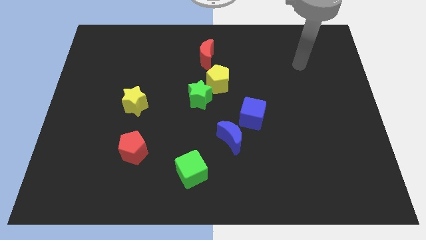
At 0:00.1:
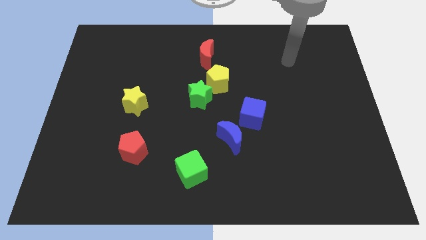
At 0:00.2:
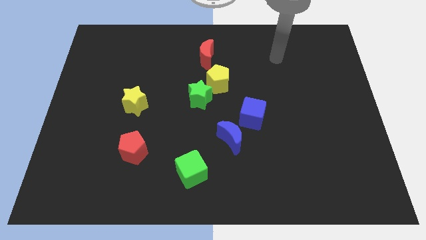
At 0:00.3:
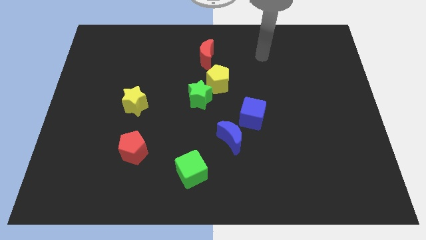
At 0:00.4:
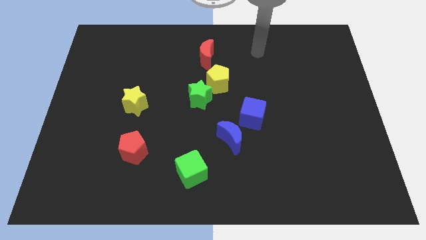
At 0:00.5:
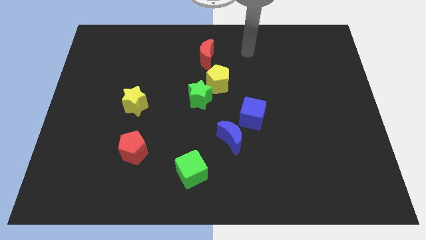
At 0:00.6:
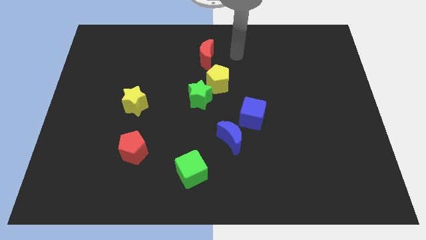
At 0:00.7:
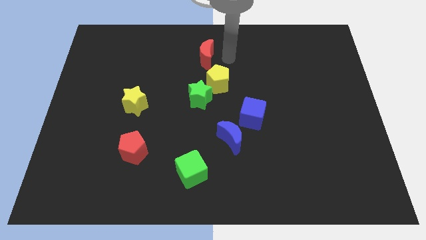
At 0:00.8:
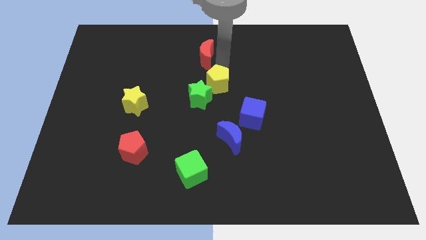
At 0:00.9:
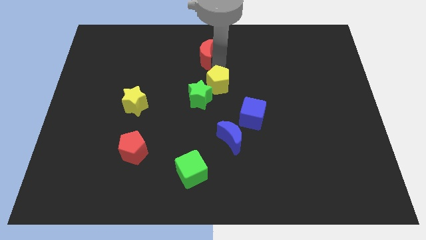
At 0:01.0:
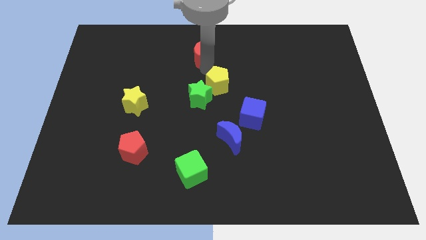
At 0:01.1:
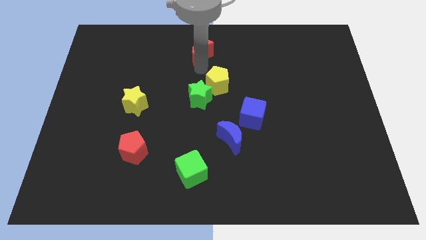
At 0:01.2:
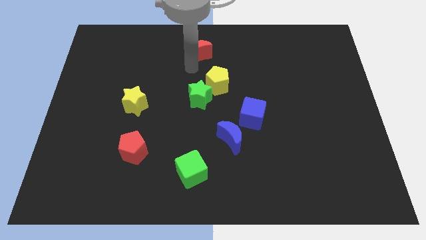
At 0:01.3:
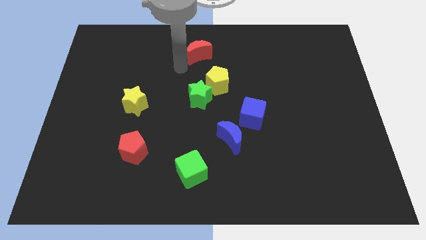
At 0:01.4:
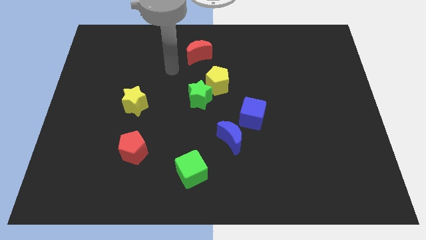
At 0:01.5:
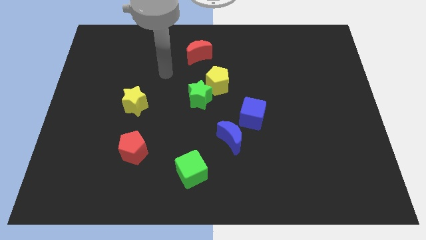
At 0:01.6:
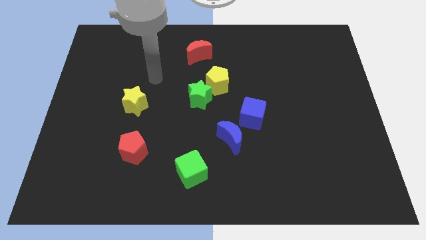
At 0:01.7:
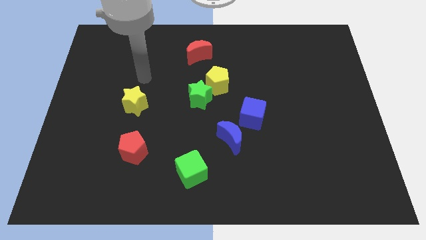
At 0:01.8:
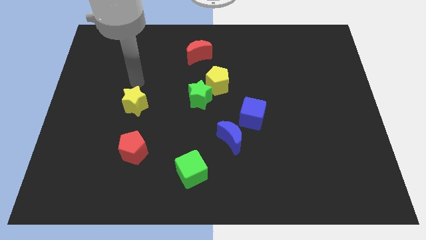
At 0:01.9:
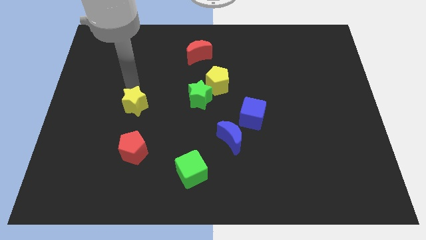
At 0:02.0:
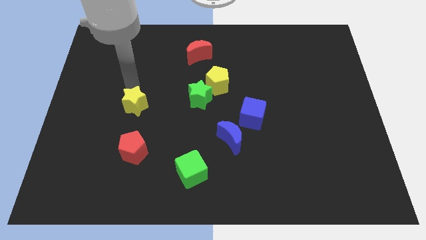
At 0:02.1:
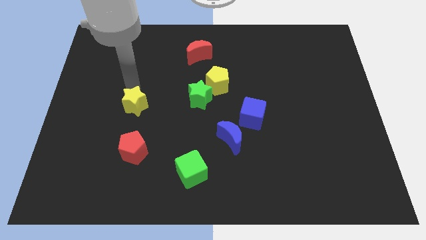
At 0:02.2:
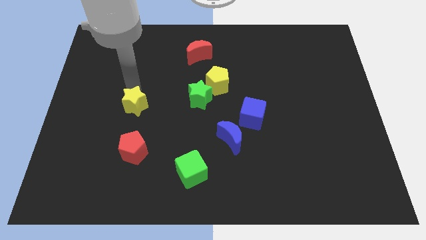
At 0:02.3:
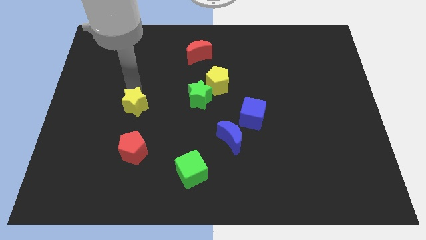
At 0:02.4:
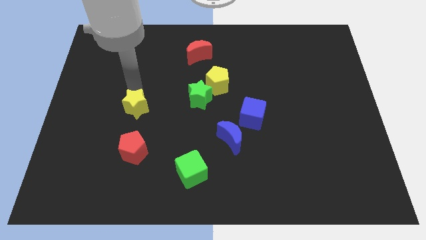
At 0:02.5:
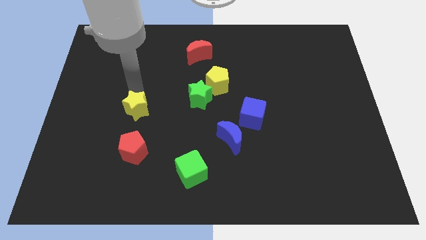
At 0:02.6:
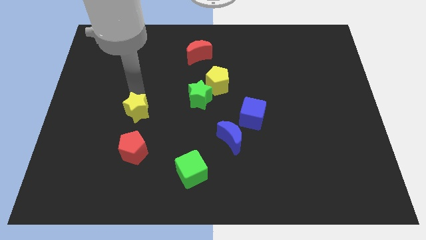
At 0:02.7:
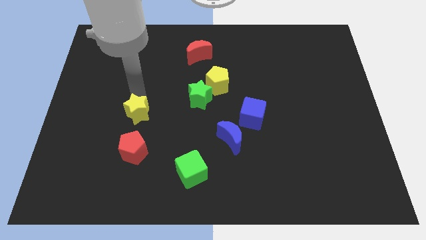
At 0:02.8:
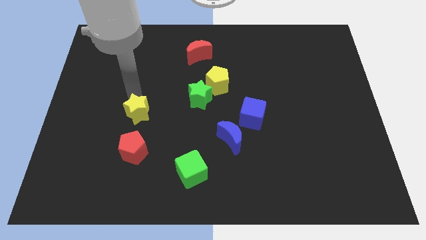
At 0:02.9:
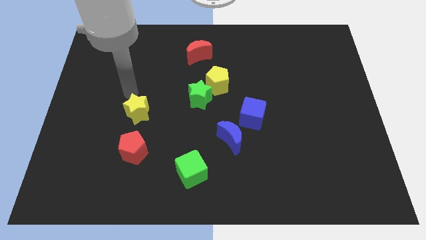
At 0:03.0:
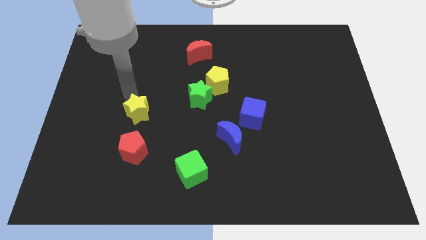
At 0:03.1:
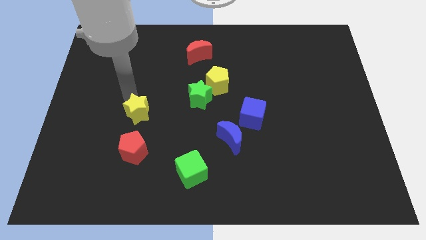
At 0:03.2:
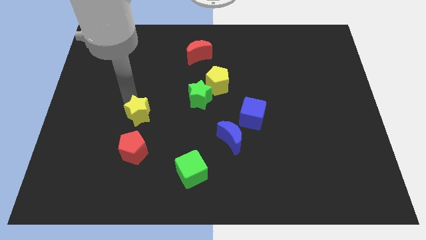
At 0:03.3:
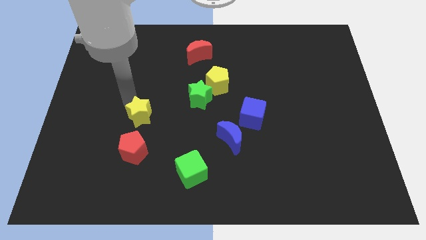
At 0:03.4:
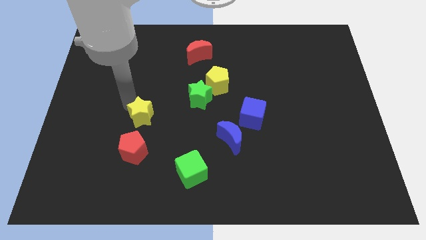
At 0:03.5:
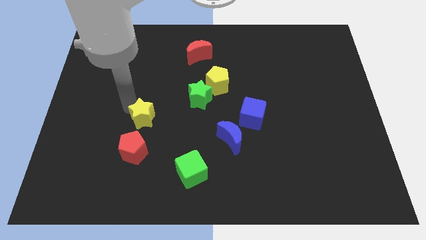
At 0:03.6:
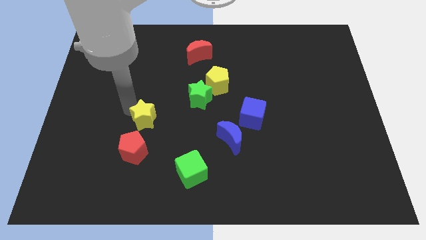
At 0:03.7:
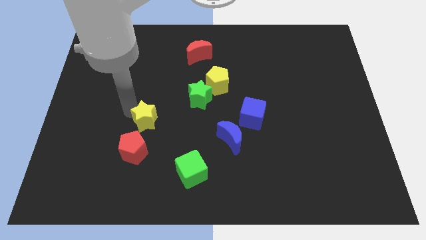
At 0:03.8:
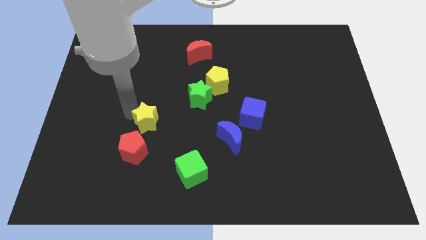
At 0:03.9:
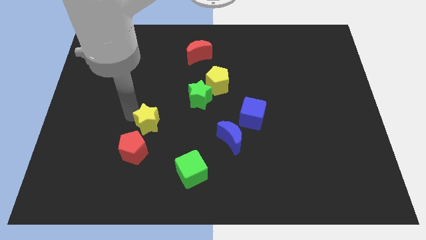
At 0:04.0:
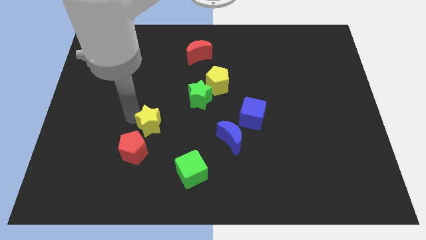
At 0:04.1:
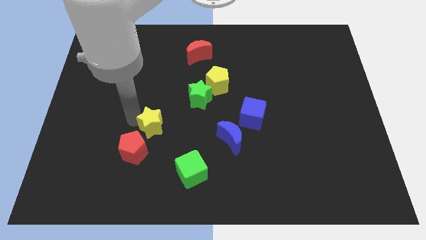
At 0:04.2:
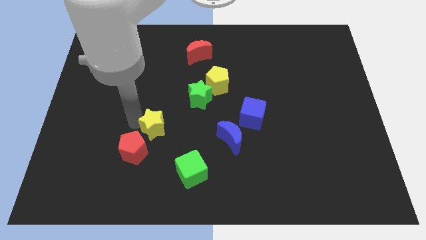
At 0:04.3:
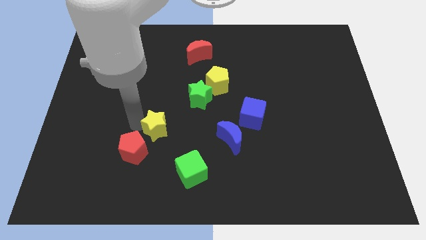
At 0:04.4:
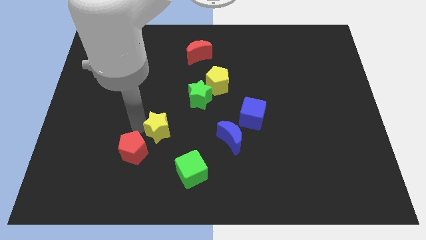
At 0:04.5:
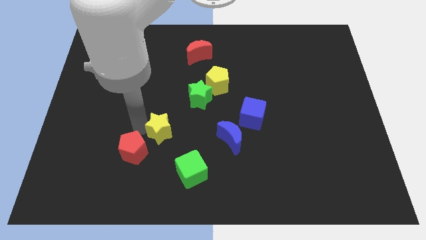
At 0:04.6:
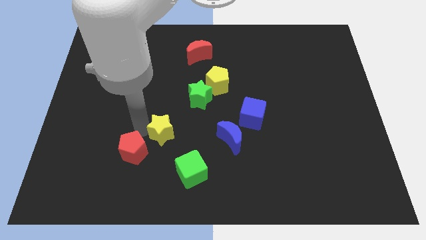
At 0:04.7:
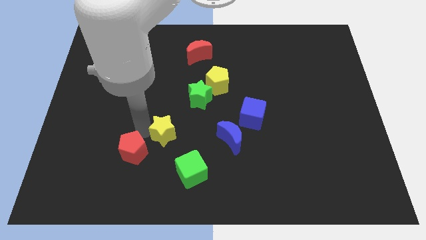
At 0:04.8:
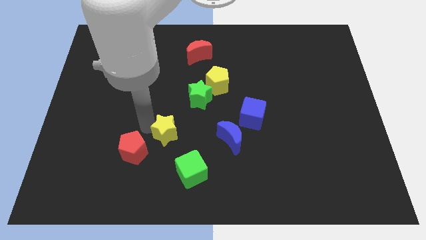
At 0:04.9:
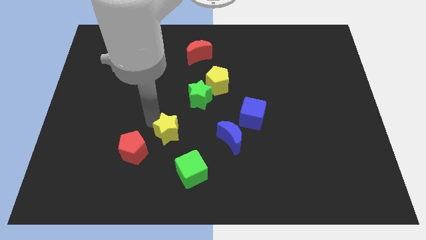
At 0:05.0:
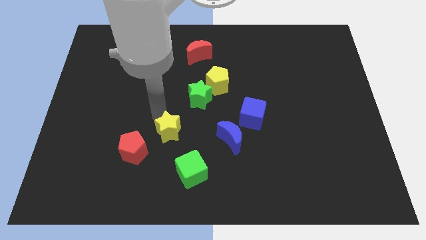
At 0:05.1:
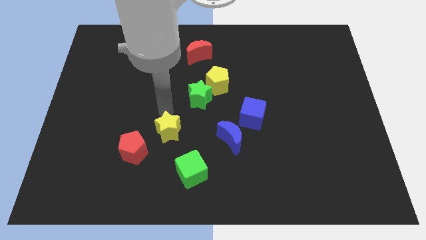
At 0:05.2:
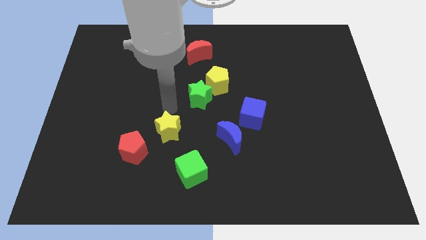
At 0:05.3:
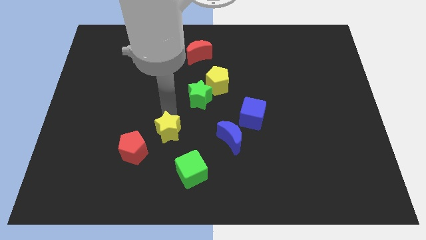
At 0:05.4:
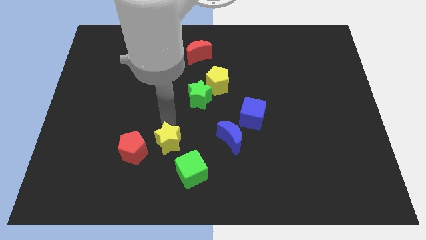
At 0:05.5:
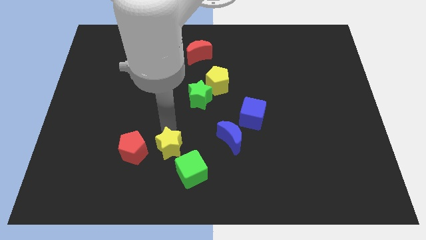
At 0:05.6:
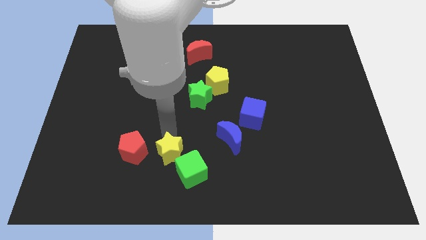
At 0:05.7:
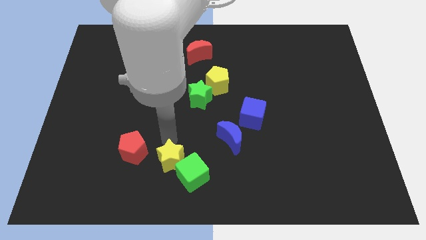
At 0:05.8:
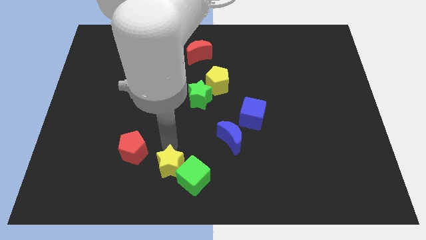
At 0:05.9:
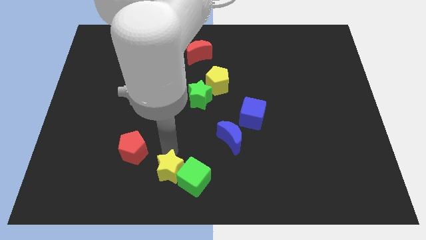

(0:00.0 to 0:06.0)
slide the yellow star to the bottom

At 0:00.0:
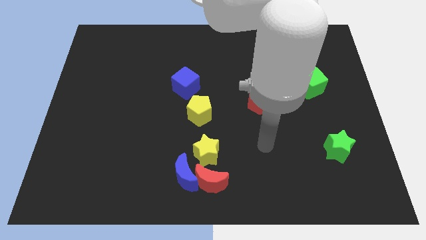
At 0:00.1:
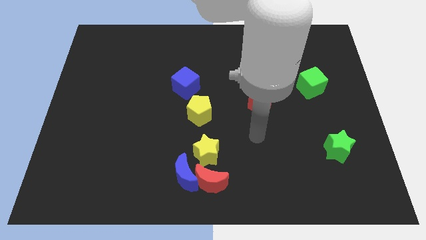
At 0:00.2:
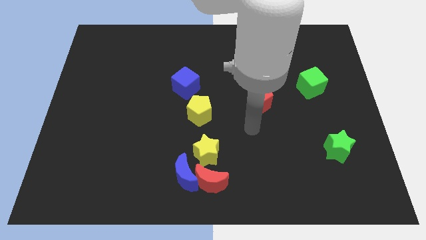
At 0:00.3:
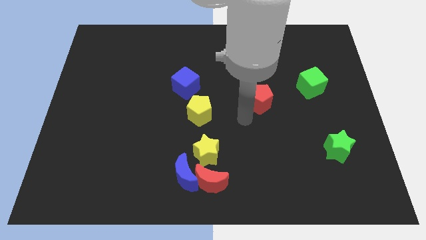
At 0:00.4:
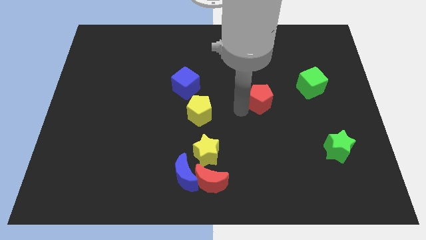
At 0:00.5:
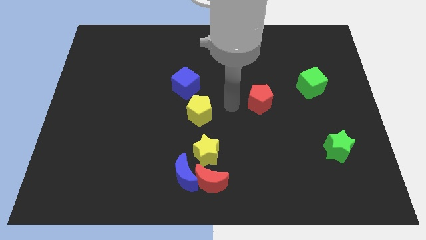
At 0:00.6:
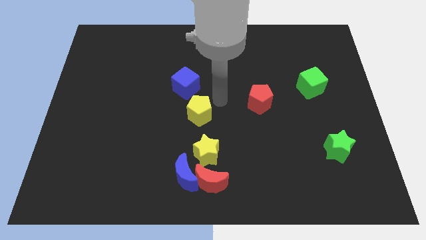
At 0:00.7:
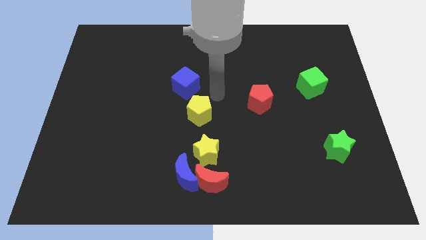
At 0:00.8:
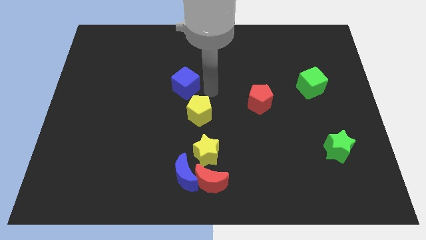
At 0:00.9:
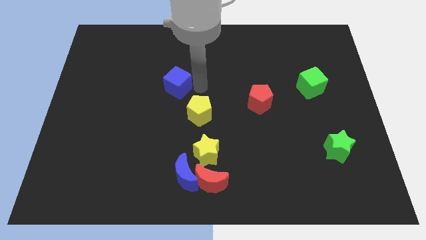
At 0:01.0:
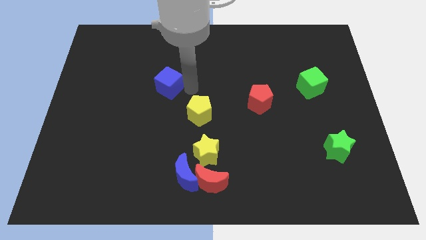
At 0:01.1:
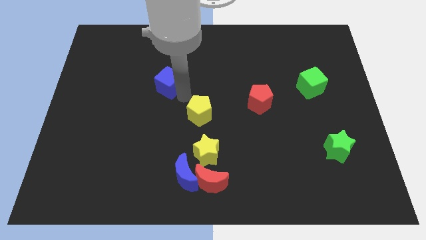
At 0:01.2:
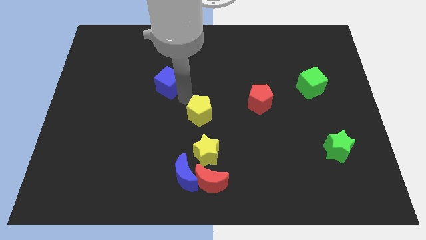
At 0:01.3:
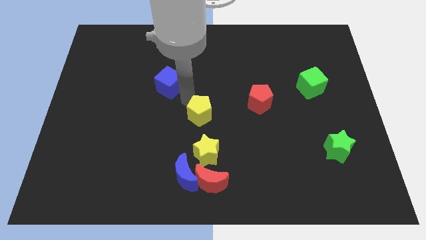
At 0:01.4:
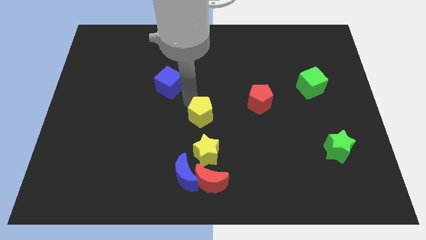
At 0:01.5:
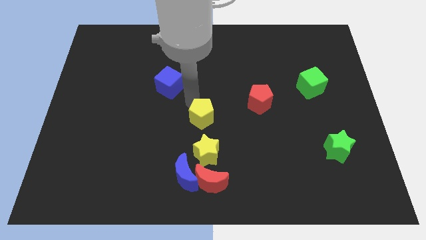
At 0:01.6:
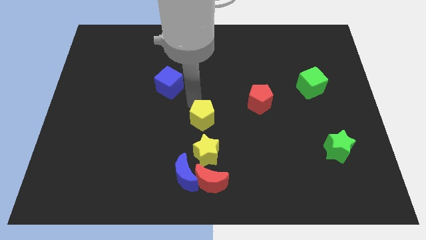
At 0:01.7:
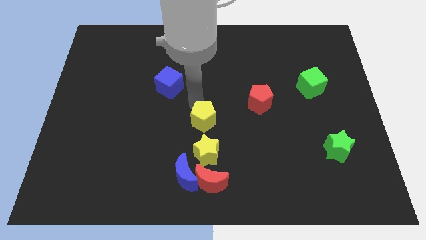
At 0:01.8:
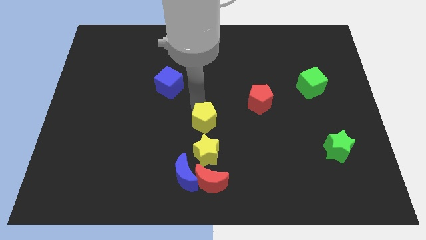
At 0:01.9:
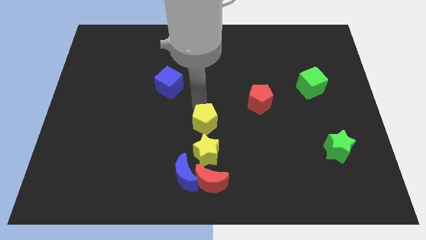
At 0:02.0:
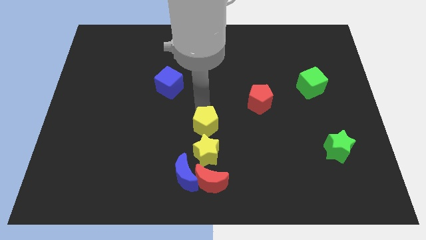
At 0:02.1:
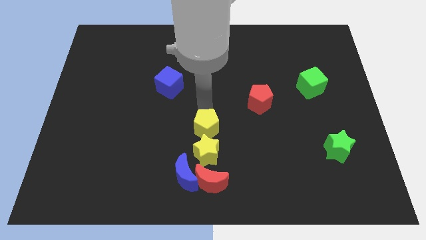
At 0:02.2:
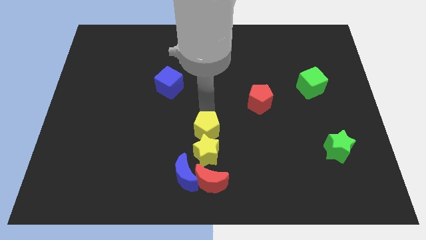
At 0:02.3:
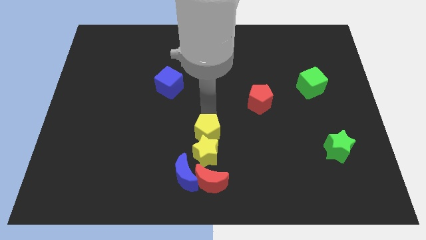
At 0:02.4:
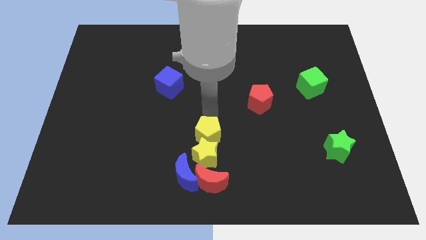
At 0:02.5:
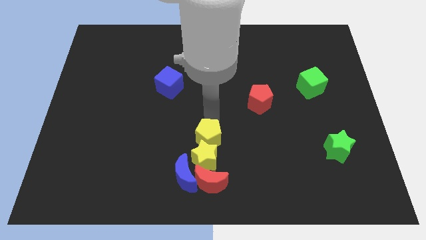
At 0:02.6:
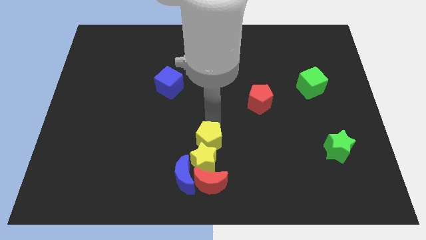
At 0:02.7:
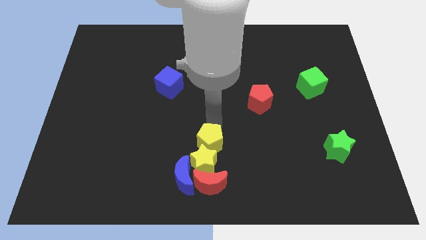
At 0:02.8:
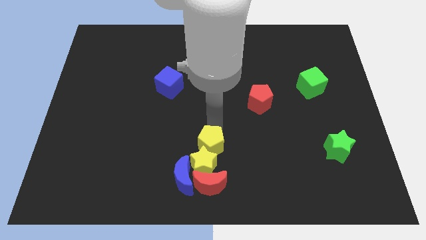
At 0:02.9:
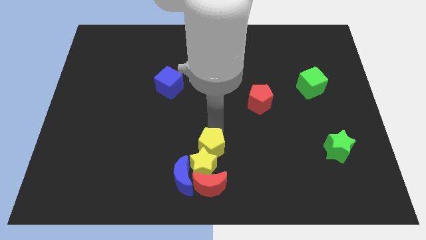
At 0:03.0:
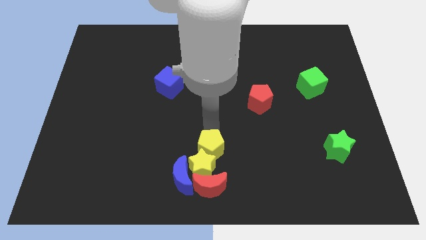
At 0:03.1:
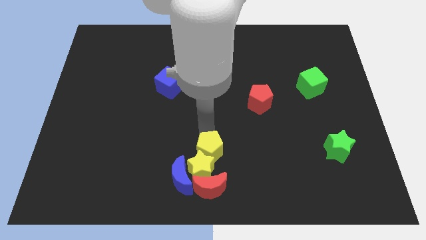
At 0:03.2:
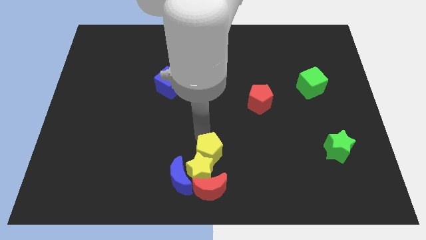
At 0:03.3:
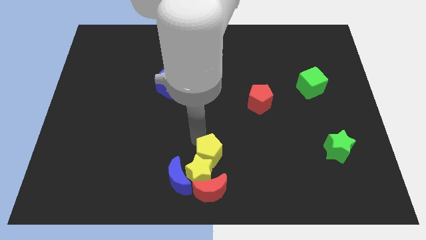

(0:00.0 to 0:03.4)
move the yellow pentagon to the bottom side
